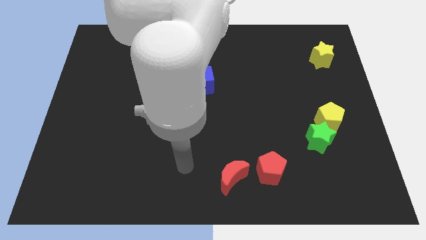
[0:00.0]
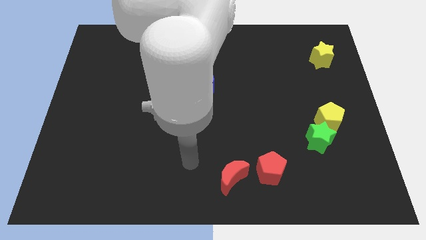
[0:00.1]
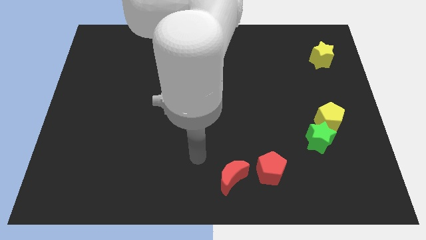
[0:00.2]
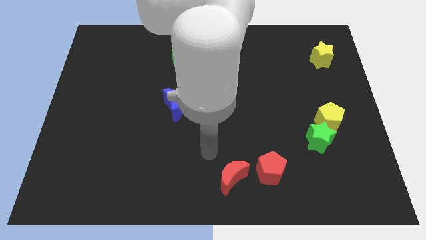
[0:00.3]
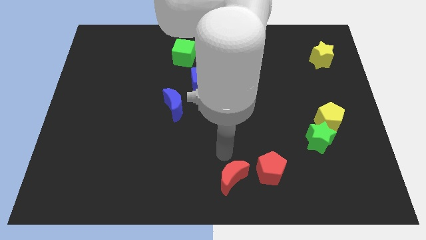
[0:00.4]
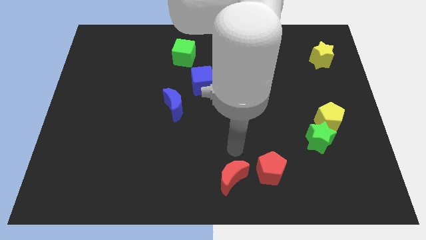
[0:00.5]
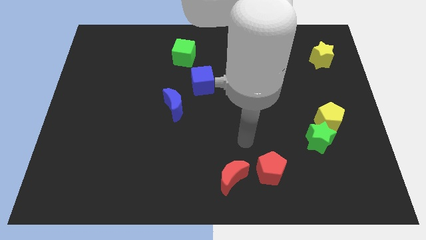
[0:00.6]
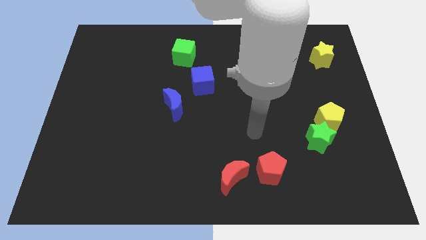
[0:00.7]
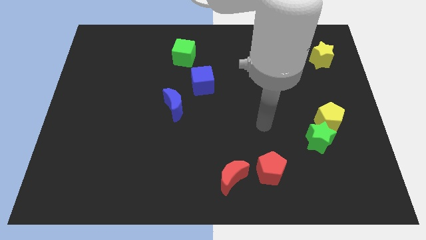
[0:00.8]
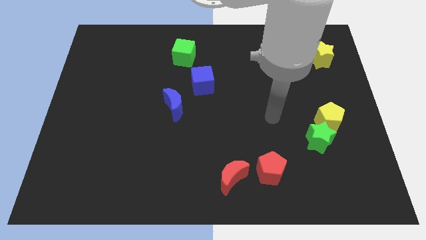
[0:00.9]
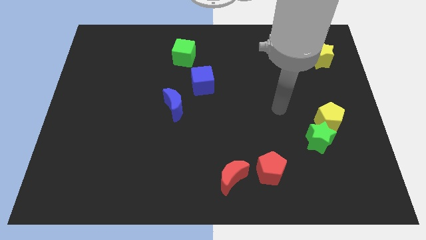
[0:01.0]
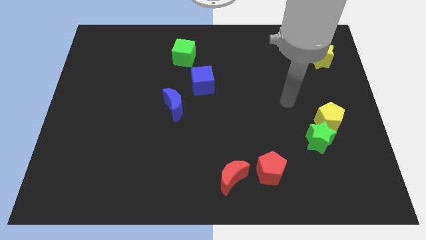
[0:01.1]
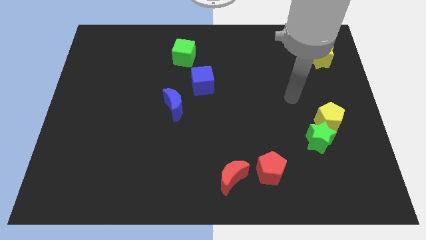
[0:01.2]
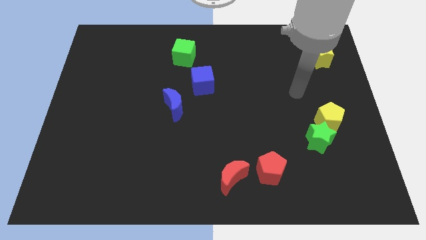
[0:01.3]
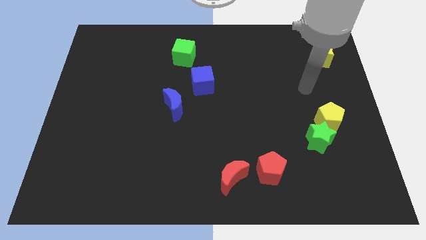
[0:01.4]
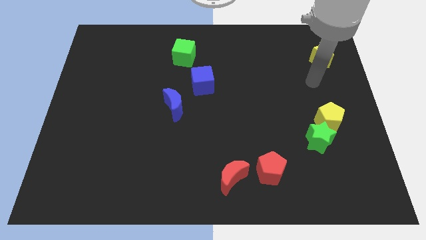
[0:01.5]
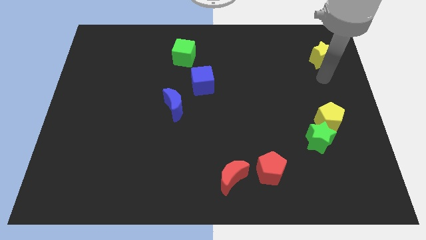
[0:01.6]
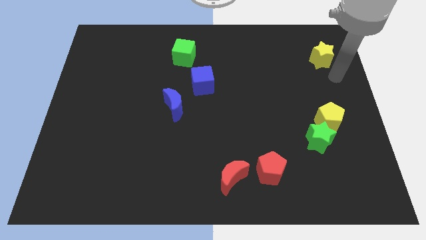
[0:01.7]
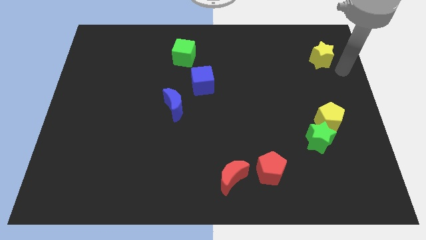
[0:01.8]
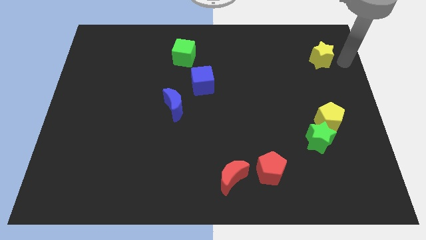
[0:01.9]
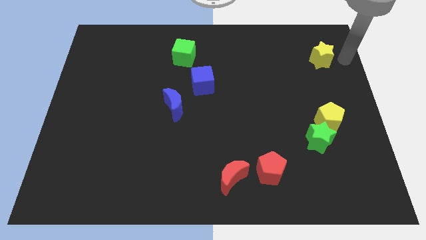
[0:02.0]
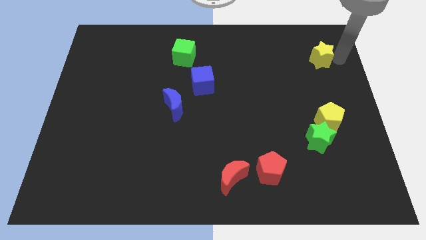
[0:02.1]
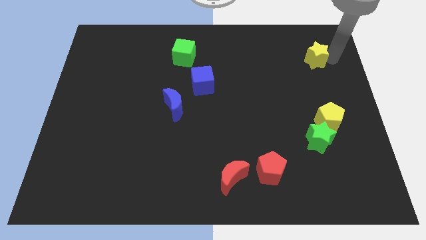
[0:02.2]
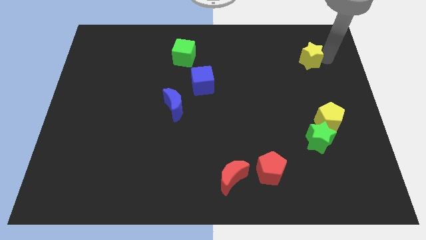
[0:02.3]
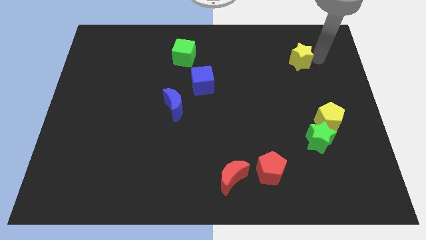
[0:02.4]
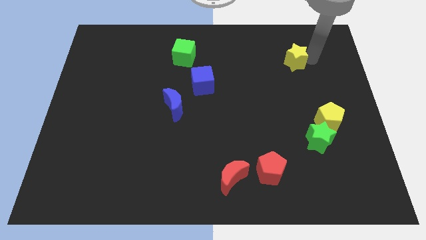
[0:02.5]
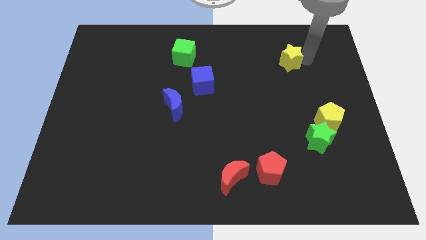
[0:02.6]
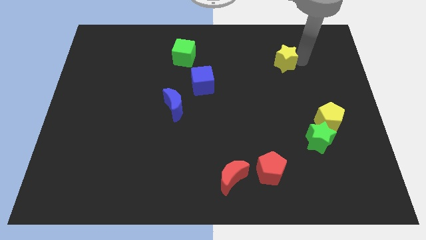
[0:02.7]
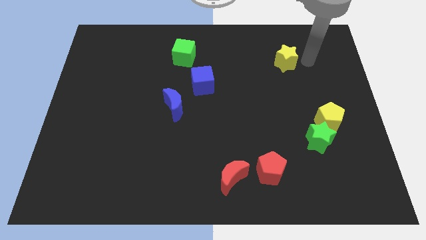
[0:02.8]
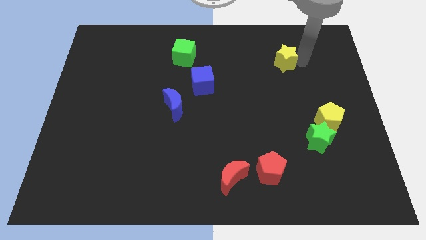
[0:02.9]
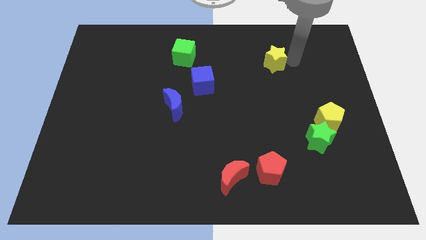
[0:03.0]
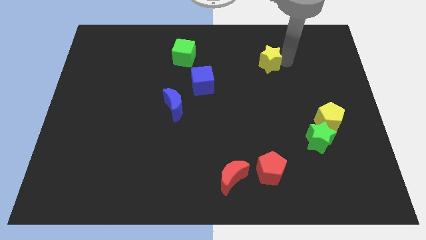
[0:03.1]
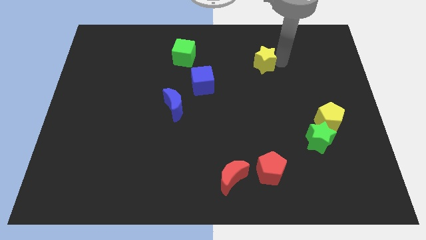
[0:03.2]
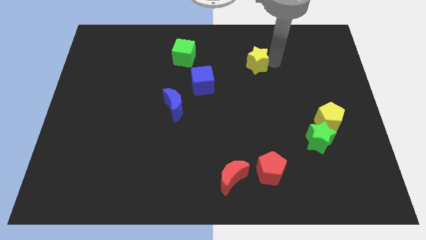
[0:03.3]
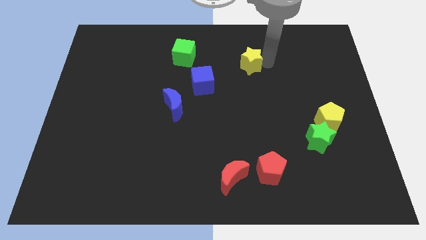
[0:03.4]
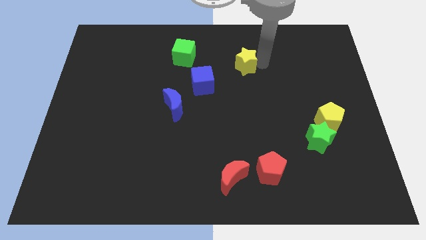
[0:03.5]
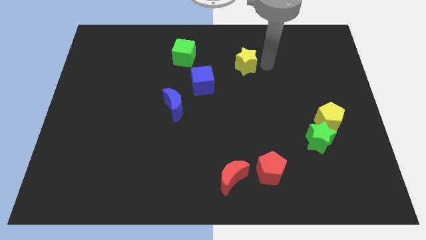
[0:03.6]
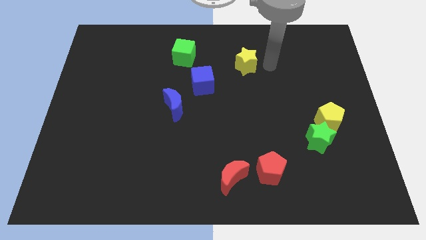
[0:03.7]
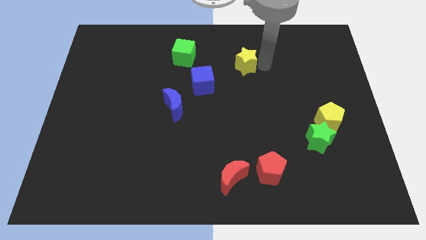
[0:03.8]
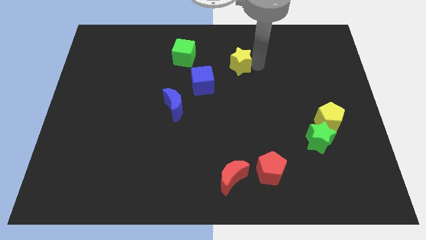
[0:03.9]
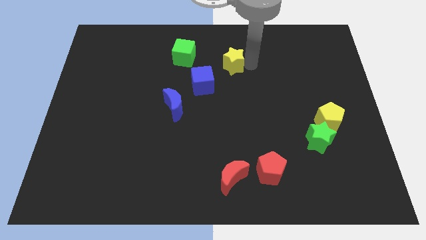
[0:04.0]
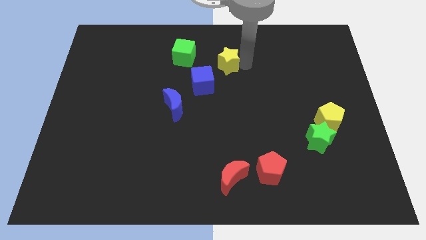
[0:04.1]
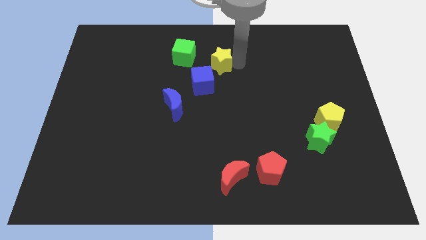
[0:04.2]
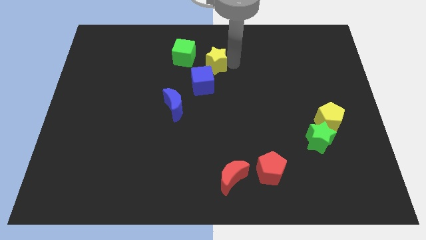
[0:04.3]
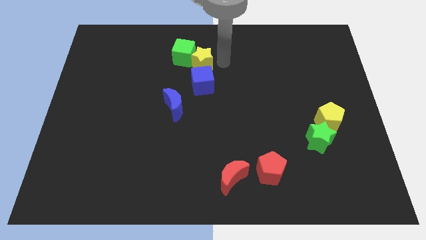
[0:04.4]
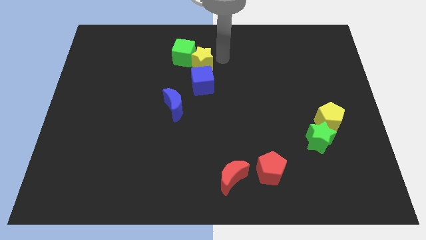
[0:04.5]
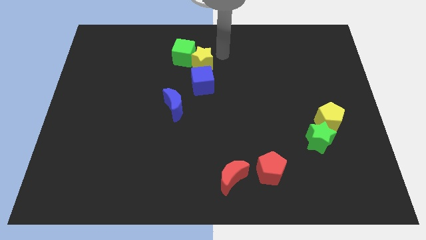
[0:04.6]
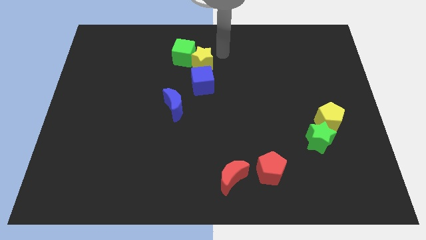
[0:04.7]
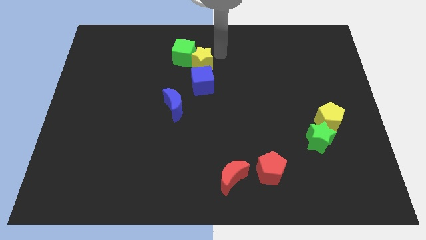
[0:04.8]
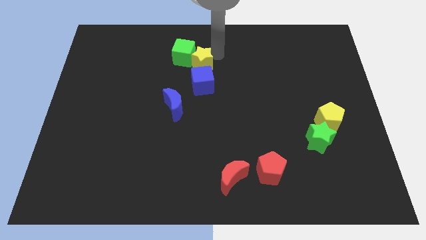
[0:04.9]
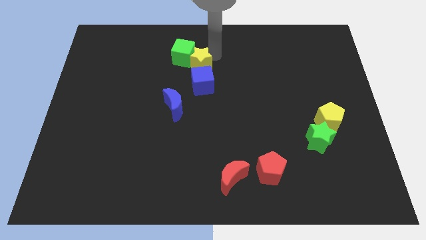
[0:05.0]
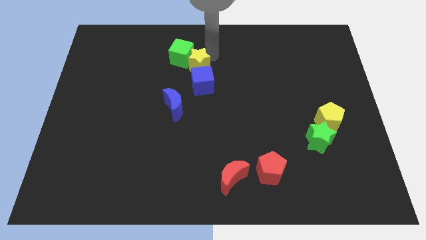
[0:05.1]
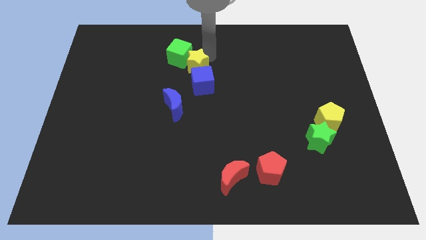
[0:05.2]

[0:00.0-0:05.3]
push the yellow star to the top of the blue moon

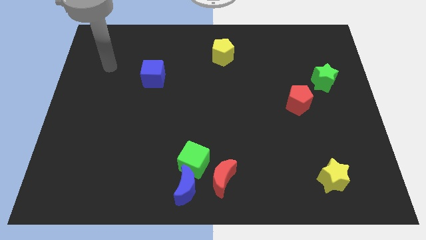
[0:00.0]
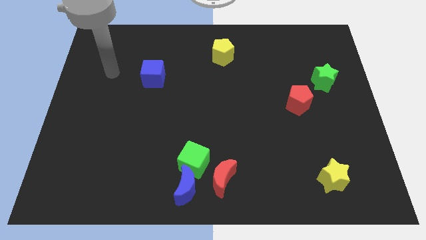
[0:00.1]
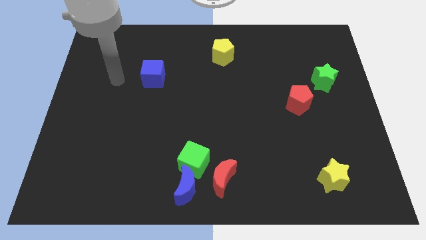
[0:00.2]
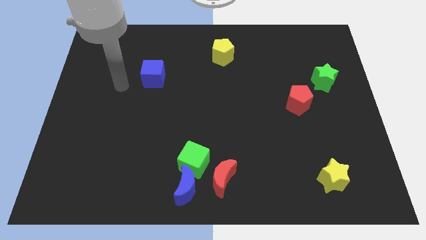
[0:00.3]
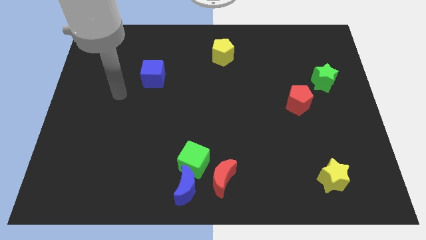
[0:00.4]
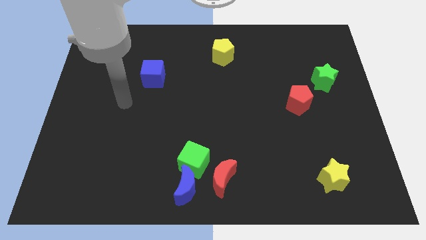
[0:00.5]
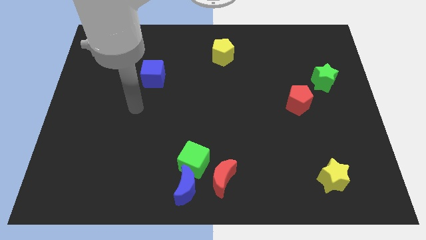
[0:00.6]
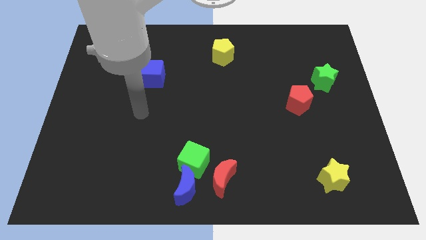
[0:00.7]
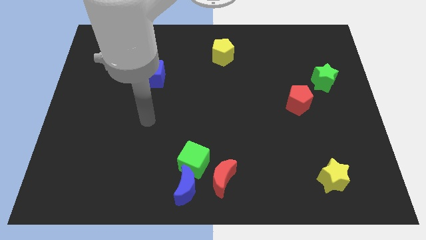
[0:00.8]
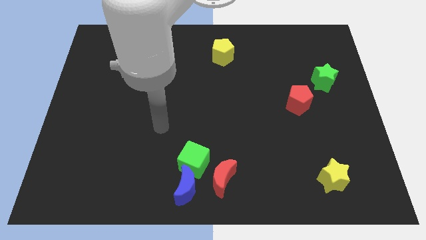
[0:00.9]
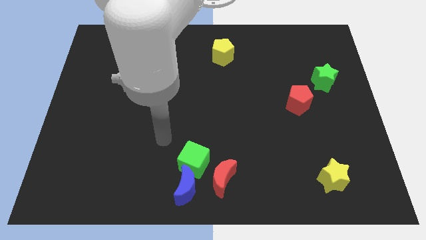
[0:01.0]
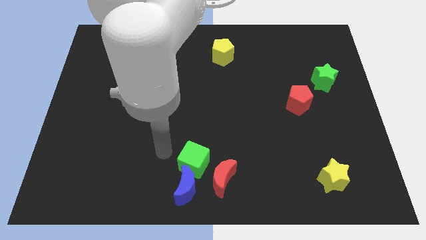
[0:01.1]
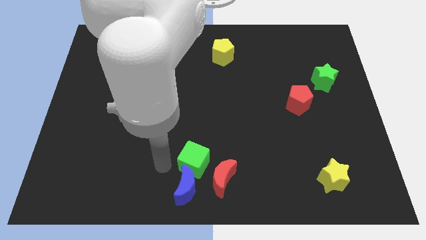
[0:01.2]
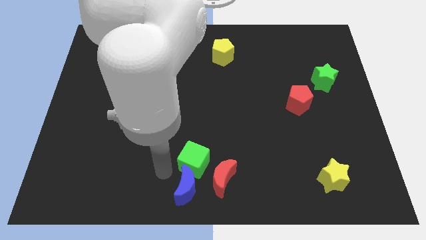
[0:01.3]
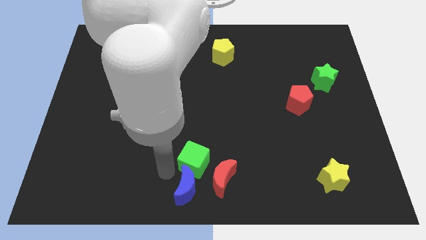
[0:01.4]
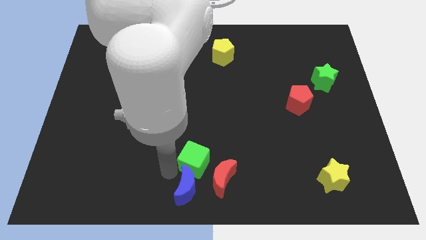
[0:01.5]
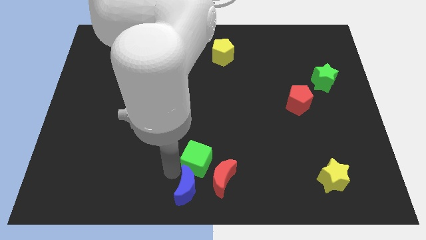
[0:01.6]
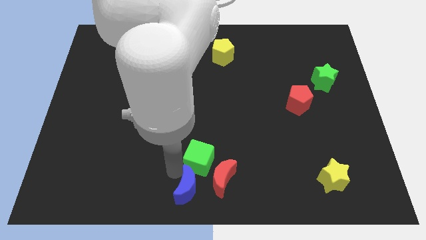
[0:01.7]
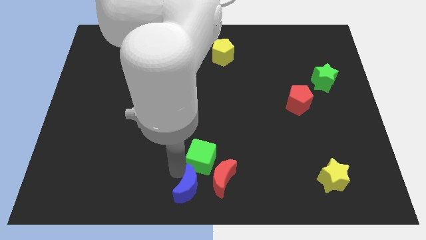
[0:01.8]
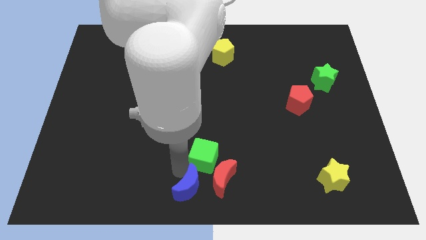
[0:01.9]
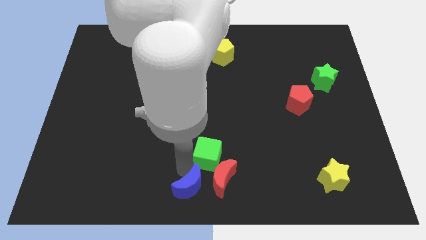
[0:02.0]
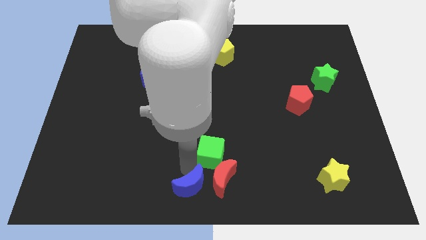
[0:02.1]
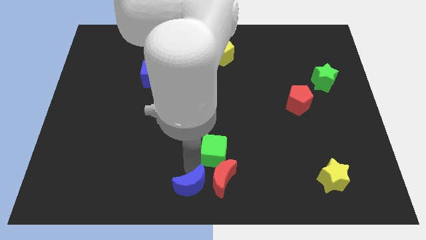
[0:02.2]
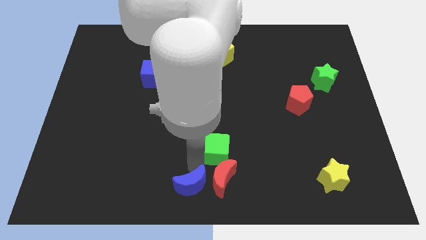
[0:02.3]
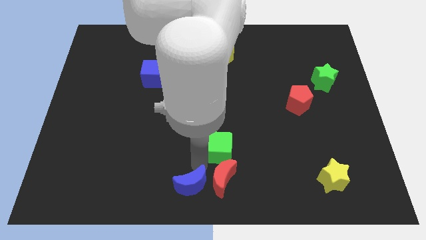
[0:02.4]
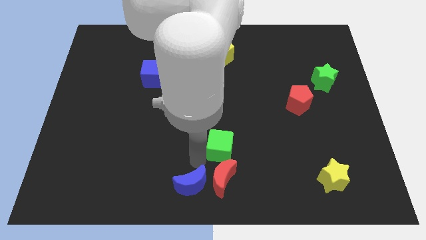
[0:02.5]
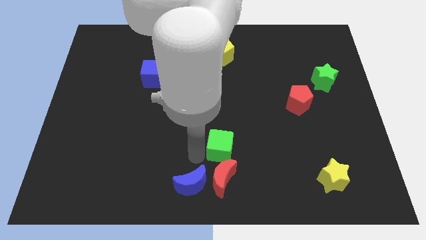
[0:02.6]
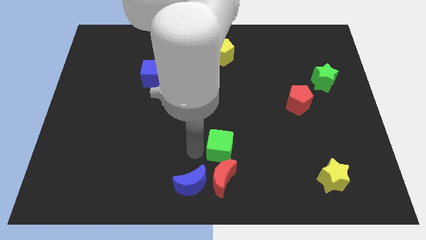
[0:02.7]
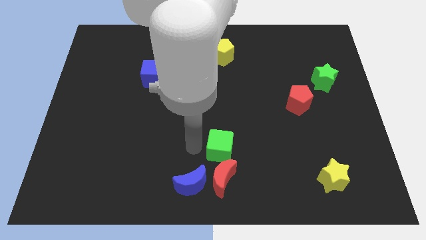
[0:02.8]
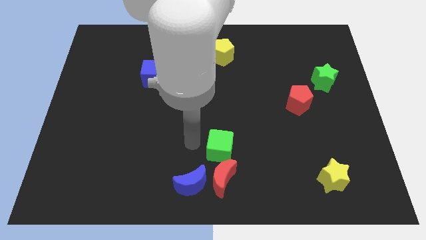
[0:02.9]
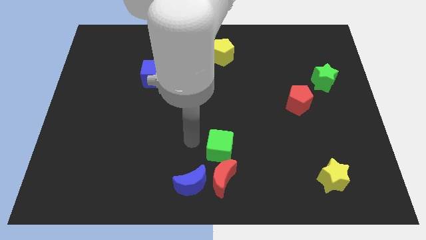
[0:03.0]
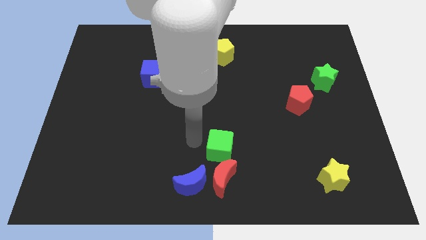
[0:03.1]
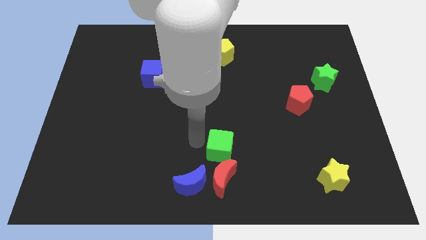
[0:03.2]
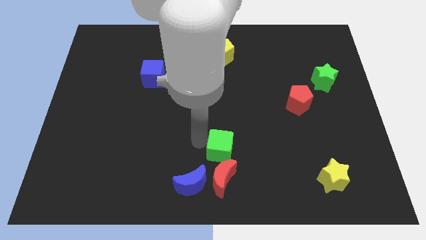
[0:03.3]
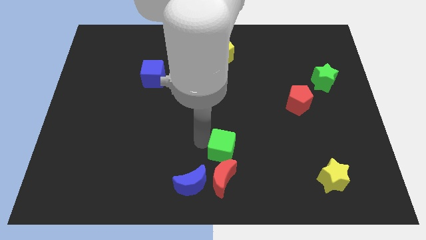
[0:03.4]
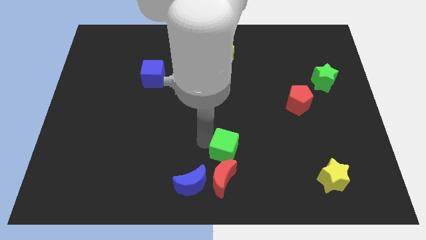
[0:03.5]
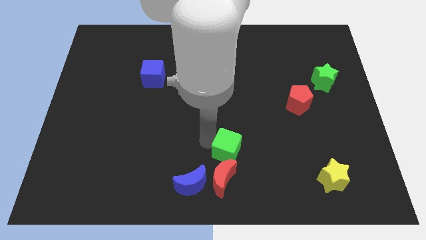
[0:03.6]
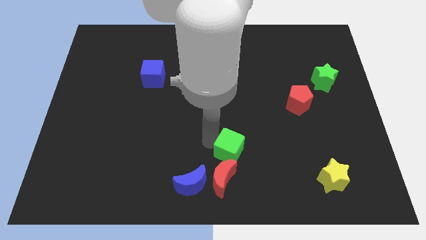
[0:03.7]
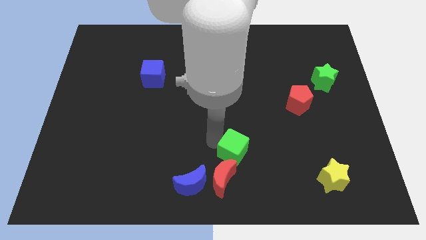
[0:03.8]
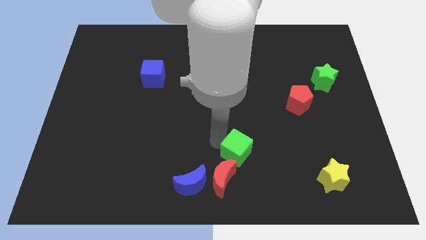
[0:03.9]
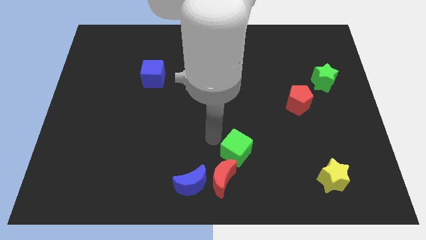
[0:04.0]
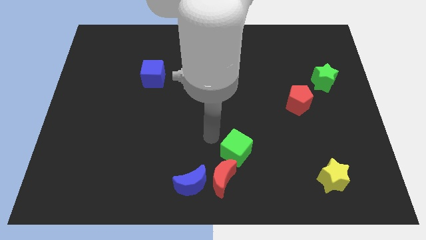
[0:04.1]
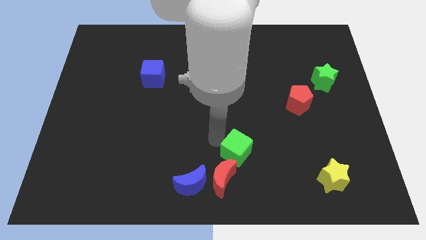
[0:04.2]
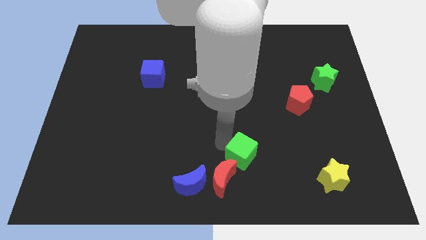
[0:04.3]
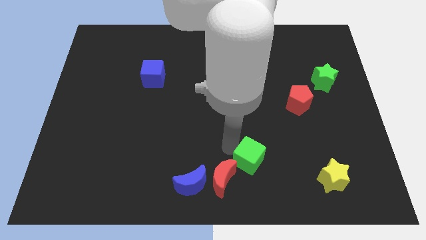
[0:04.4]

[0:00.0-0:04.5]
push the green cube to the right side of the red moon
